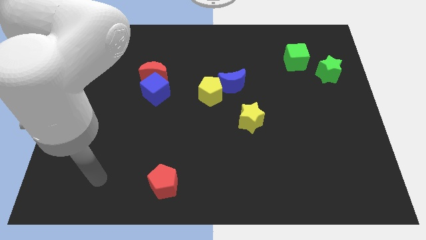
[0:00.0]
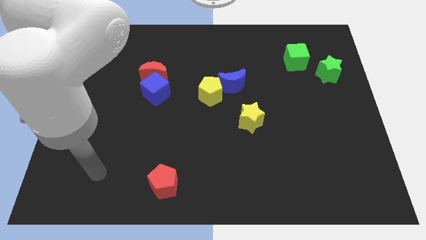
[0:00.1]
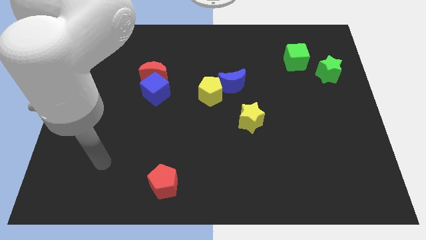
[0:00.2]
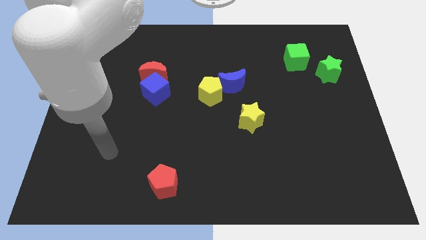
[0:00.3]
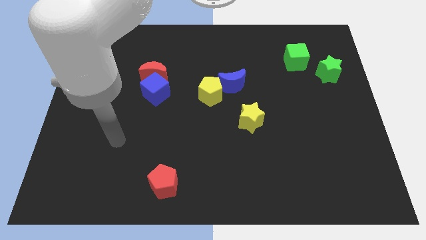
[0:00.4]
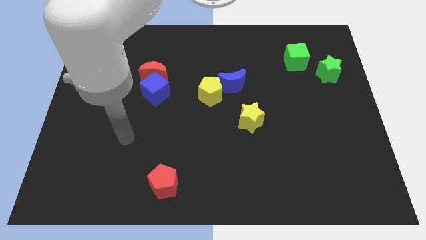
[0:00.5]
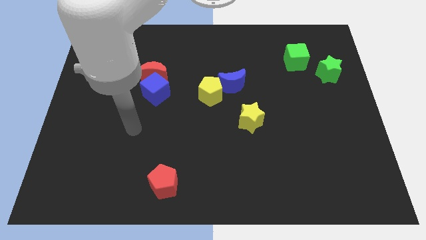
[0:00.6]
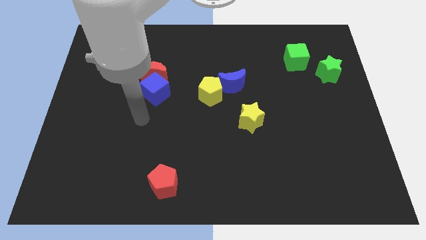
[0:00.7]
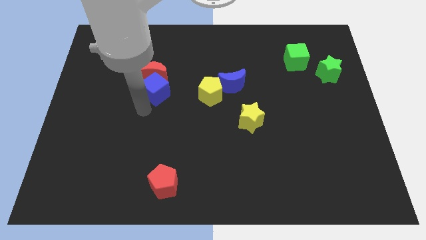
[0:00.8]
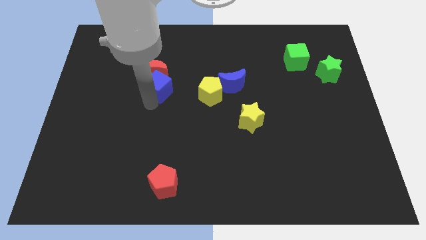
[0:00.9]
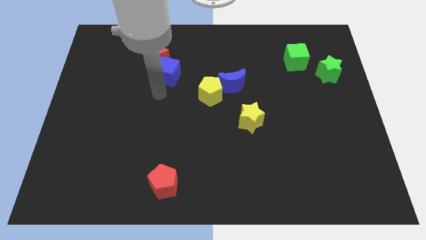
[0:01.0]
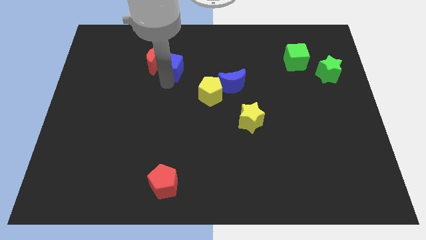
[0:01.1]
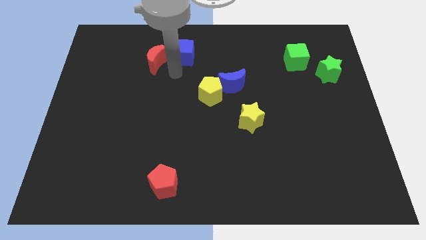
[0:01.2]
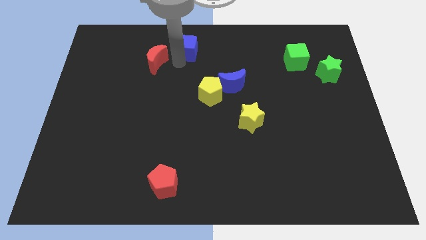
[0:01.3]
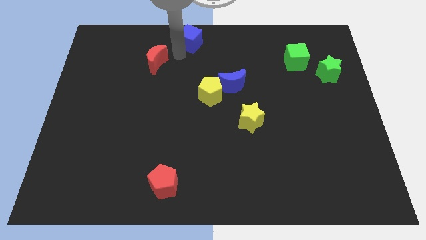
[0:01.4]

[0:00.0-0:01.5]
separate the red moon from the blue cube

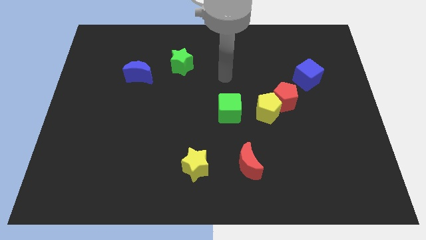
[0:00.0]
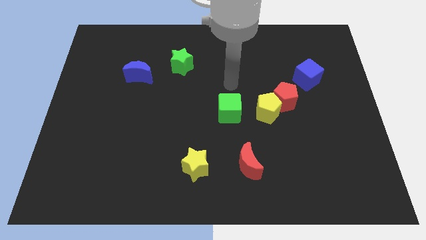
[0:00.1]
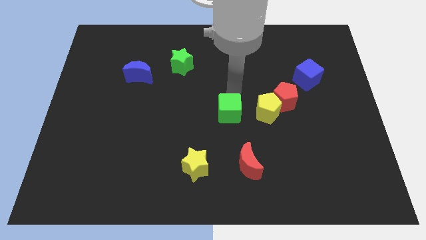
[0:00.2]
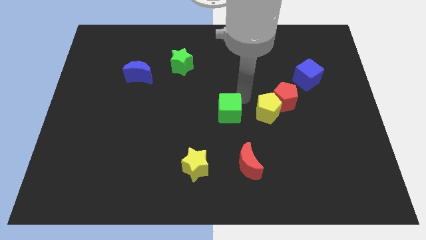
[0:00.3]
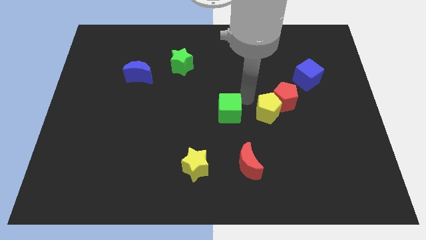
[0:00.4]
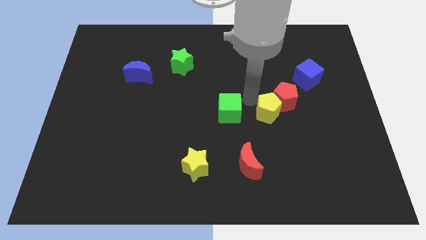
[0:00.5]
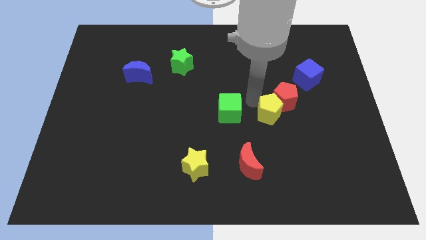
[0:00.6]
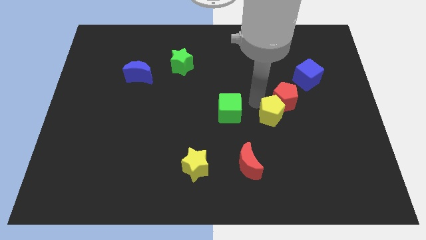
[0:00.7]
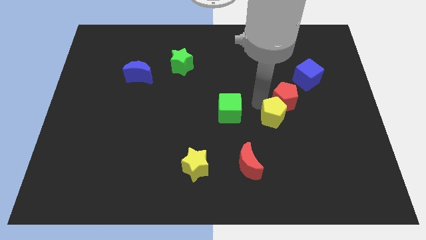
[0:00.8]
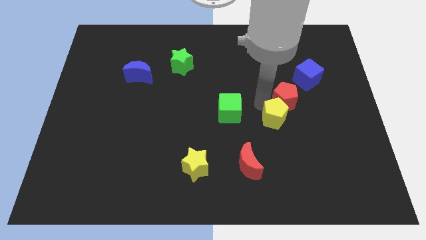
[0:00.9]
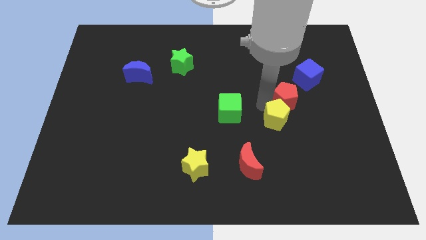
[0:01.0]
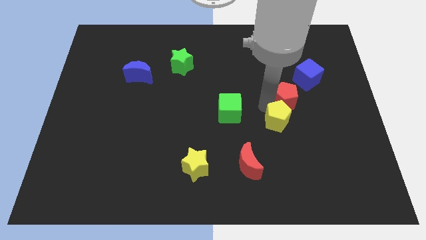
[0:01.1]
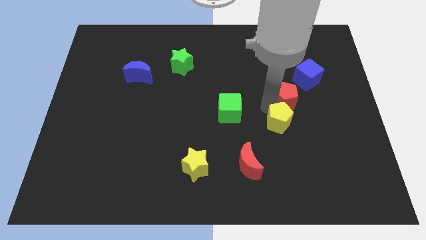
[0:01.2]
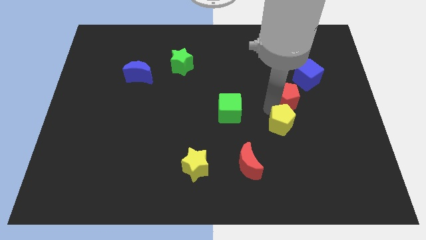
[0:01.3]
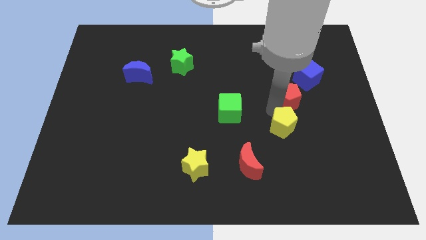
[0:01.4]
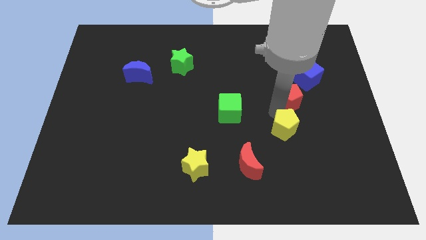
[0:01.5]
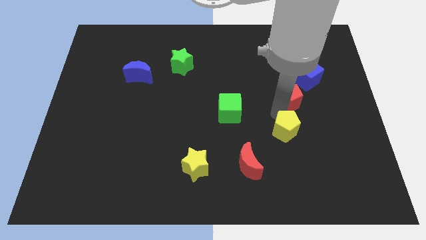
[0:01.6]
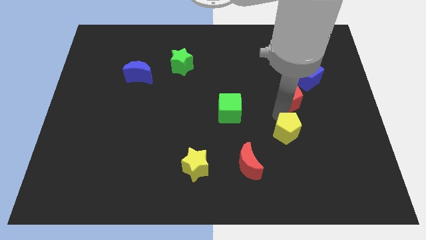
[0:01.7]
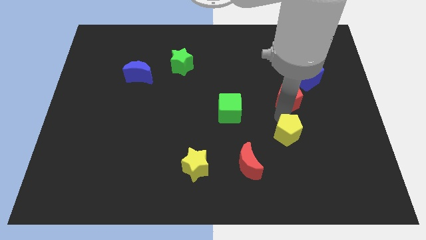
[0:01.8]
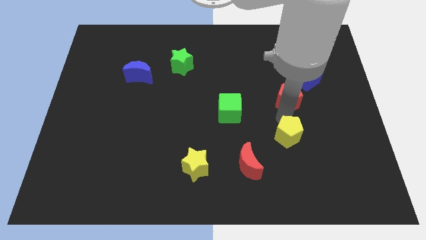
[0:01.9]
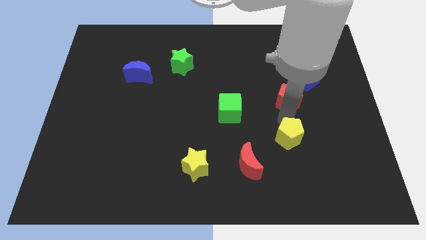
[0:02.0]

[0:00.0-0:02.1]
pull the yellow pentagon apart from the red pentagon and green cube

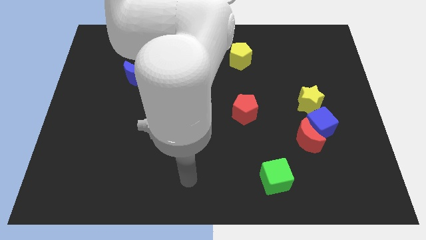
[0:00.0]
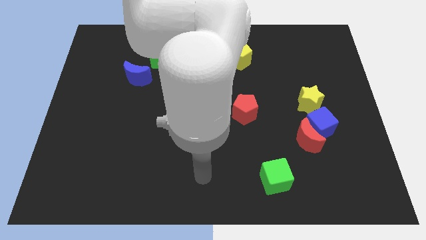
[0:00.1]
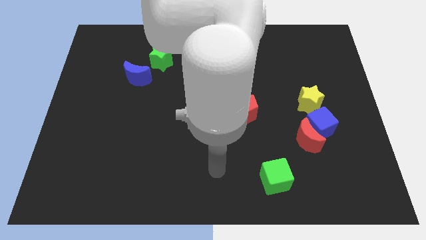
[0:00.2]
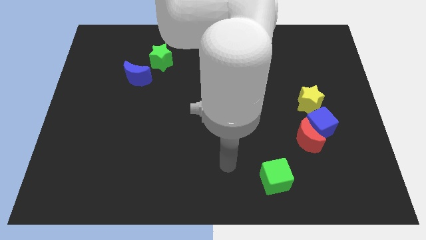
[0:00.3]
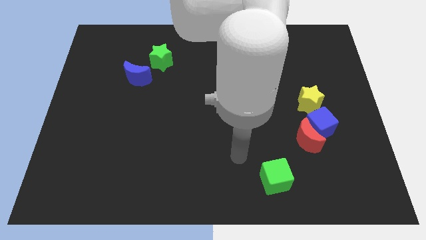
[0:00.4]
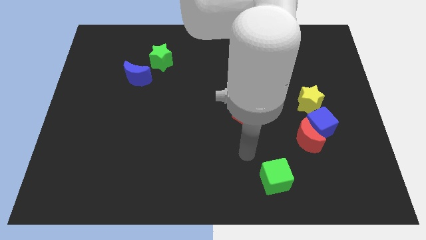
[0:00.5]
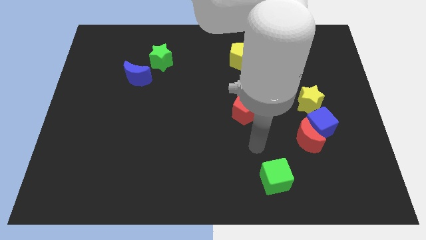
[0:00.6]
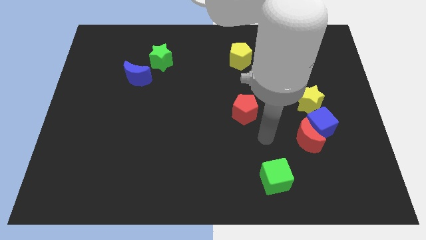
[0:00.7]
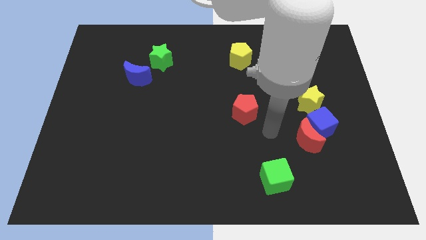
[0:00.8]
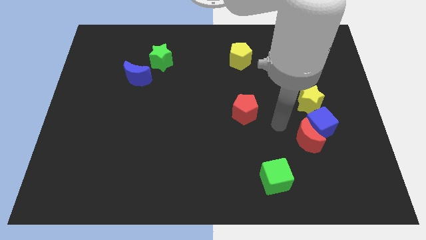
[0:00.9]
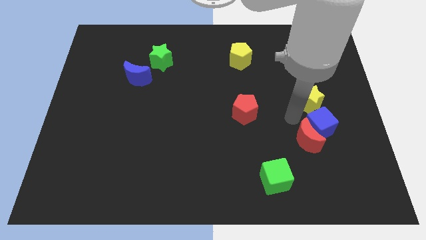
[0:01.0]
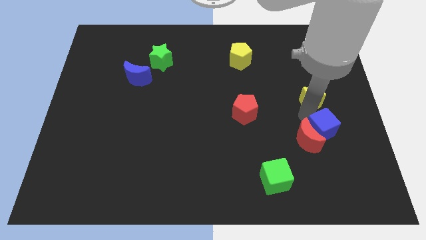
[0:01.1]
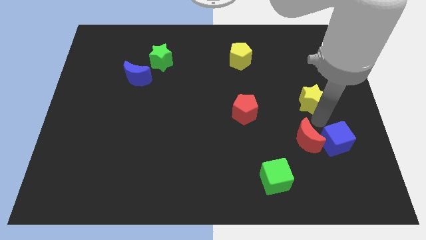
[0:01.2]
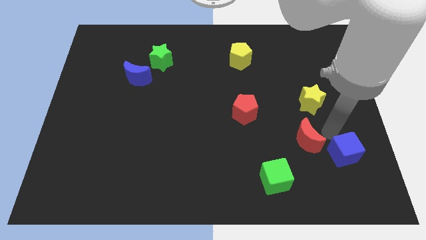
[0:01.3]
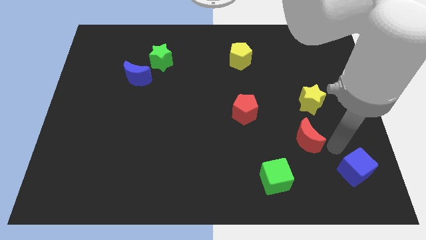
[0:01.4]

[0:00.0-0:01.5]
pull the red moon apart from the blue cube

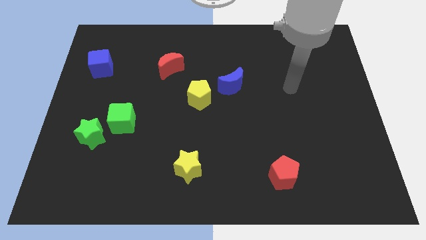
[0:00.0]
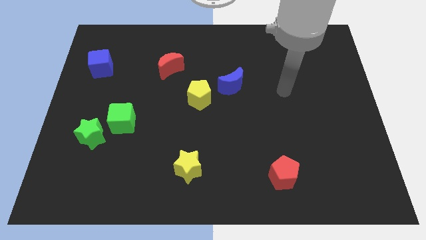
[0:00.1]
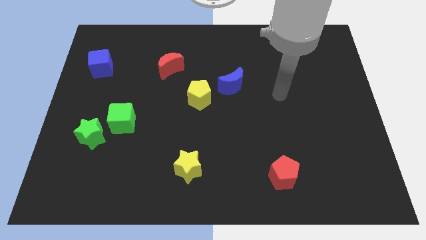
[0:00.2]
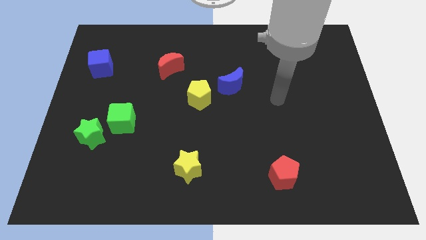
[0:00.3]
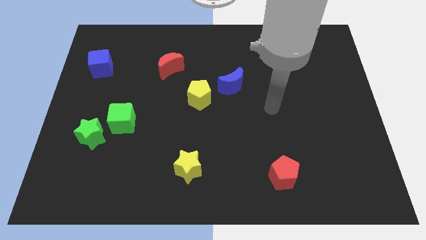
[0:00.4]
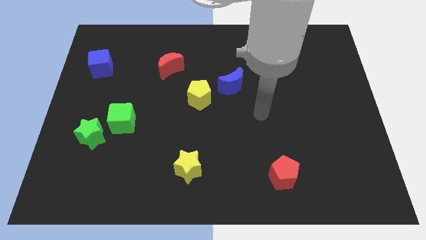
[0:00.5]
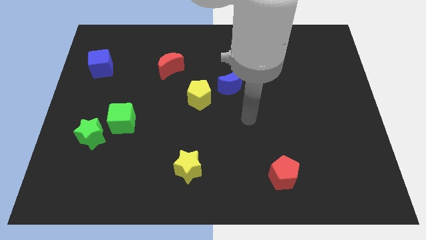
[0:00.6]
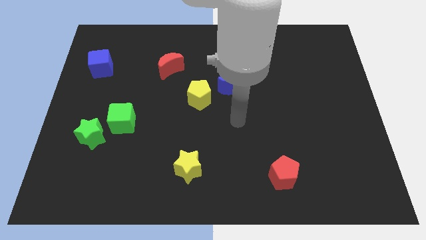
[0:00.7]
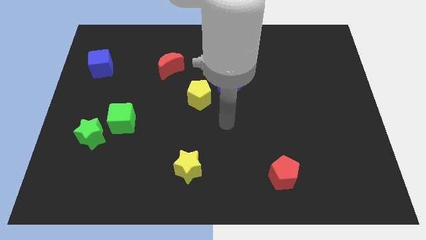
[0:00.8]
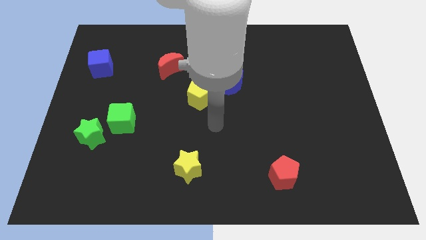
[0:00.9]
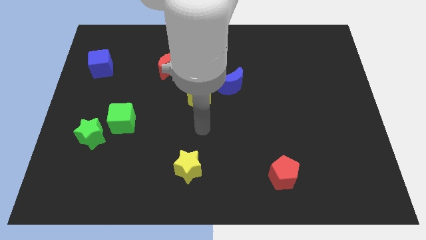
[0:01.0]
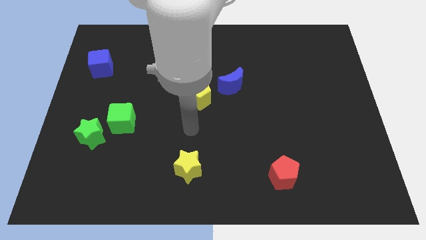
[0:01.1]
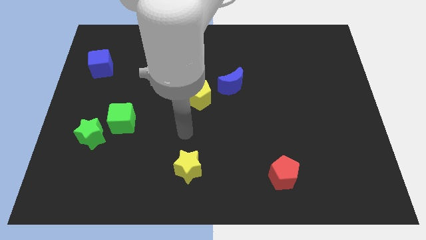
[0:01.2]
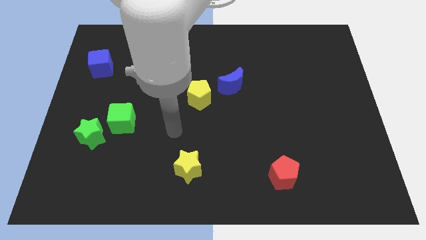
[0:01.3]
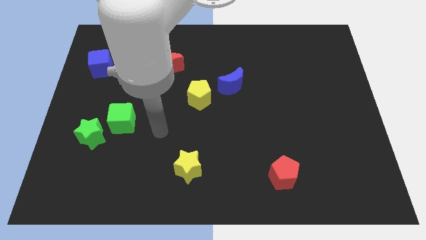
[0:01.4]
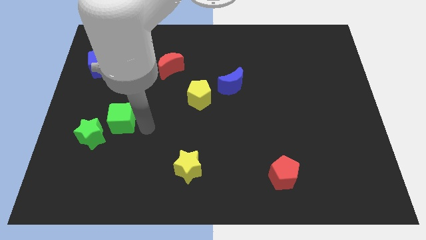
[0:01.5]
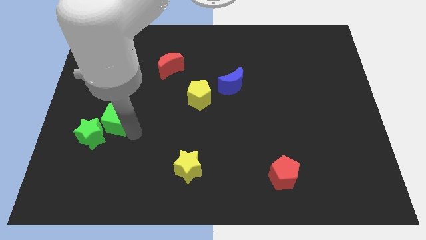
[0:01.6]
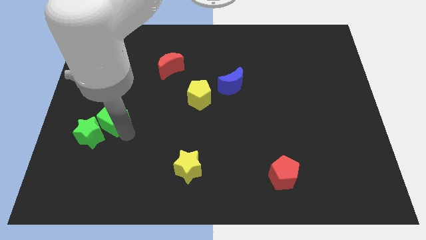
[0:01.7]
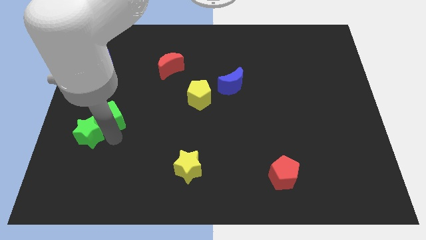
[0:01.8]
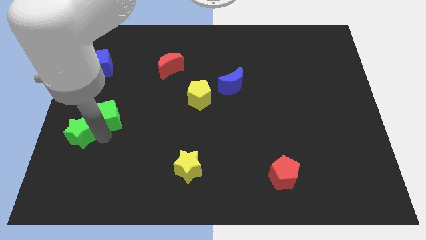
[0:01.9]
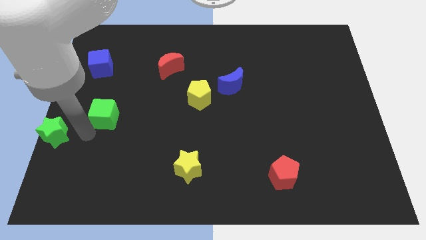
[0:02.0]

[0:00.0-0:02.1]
move the green cube away from the green star

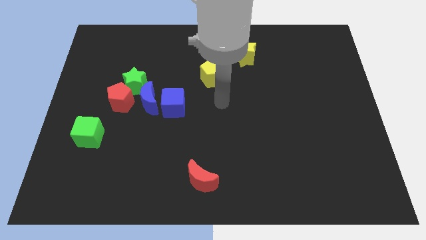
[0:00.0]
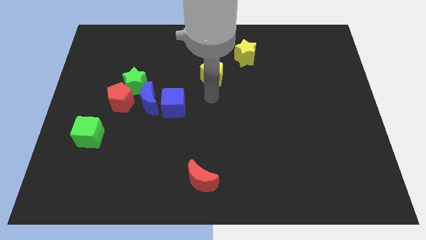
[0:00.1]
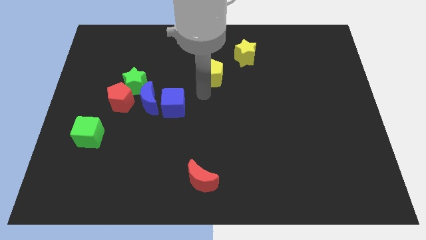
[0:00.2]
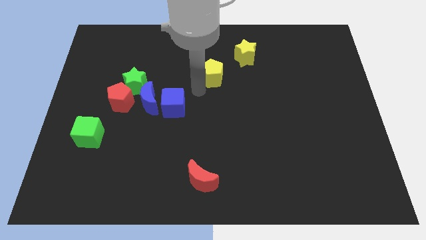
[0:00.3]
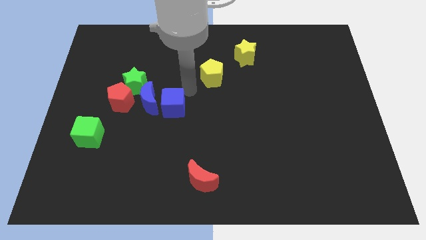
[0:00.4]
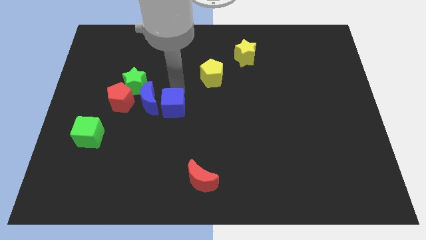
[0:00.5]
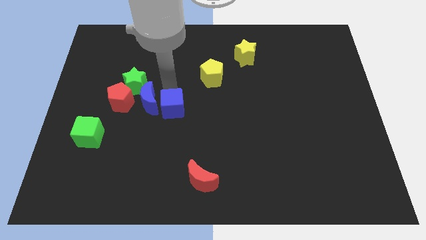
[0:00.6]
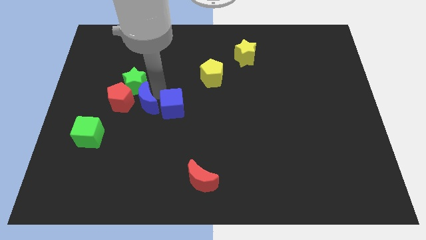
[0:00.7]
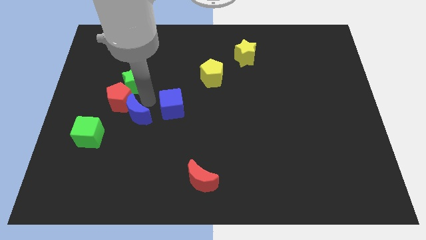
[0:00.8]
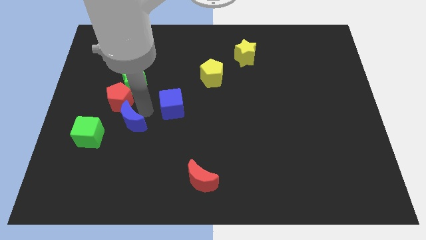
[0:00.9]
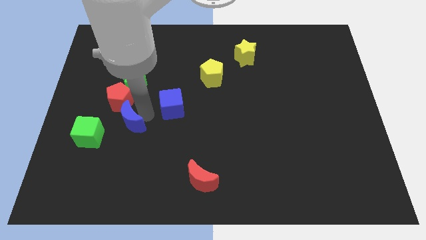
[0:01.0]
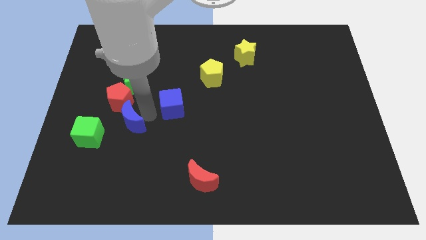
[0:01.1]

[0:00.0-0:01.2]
separate the blue cube from the blue moon

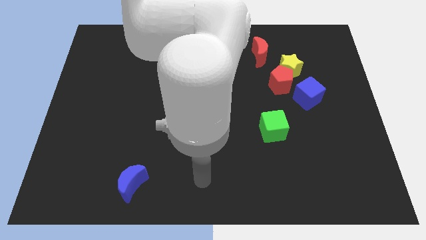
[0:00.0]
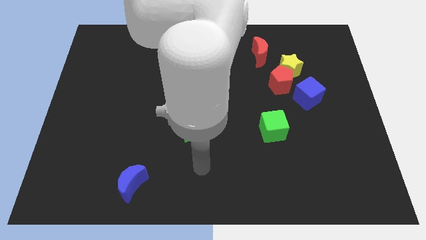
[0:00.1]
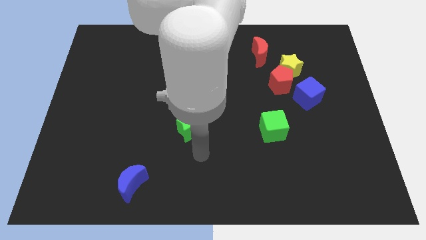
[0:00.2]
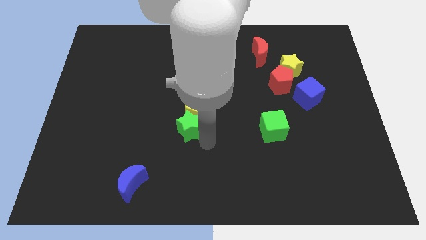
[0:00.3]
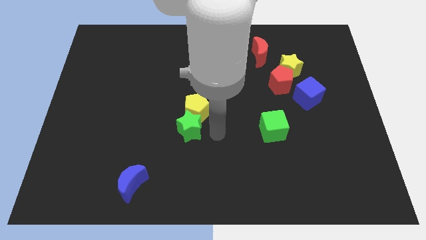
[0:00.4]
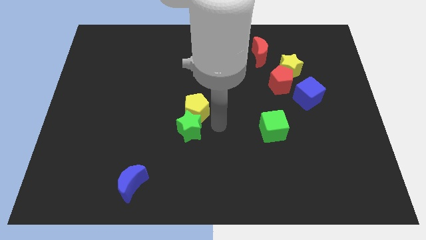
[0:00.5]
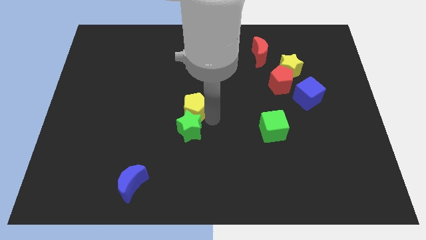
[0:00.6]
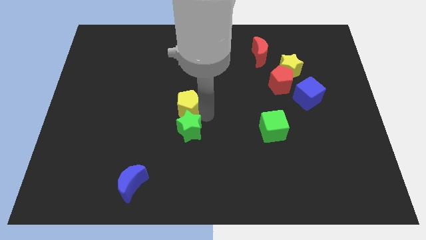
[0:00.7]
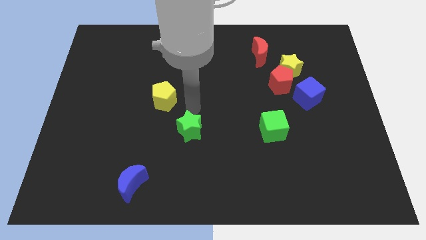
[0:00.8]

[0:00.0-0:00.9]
separate the green star from the yellow pentagon
